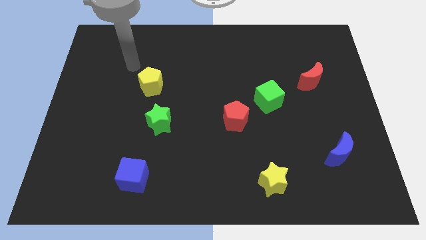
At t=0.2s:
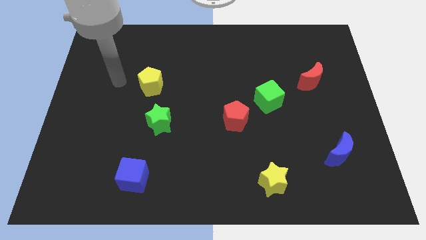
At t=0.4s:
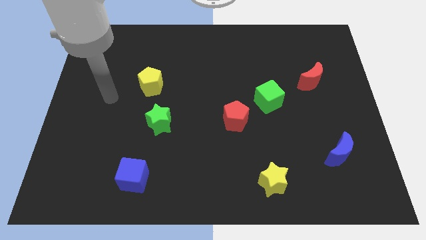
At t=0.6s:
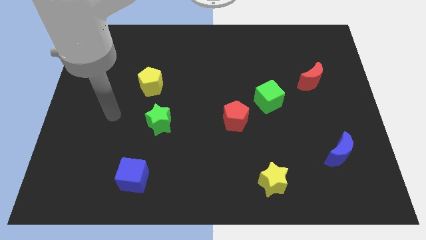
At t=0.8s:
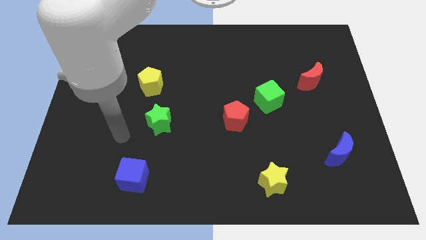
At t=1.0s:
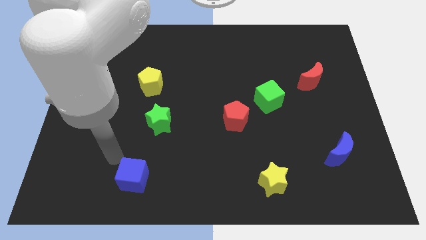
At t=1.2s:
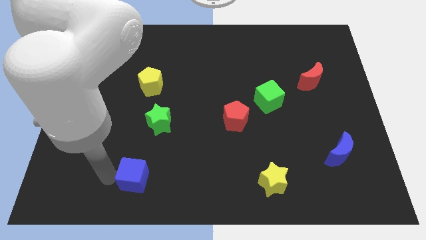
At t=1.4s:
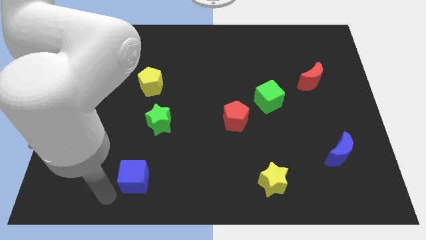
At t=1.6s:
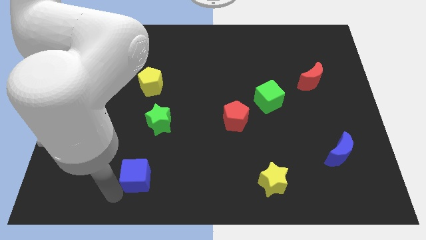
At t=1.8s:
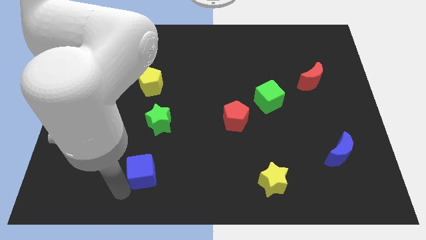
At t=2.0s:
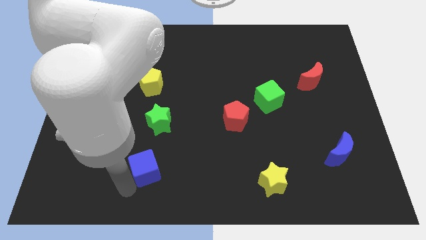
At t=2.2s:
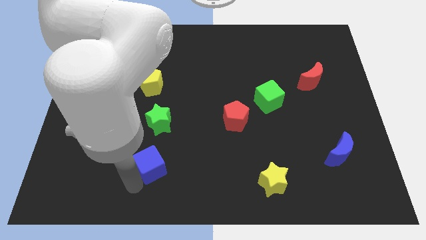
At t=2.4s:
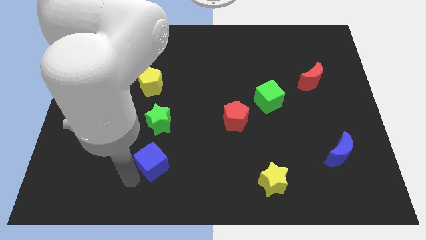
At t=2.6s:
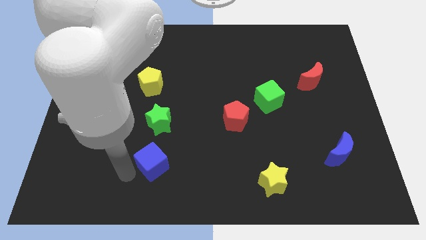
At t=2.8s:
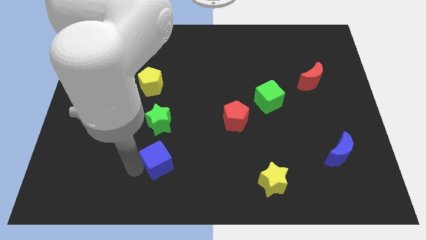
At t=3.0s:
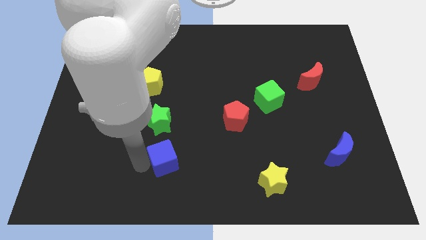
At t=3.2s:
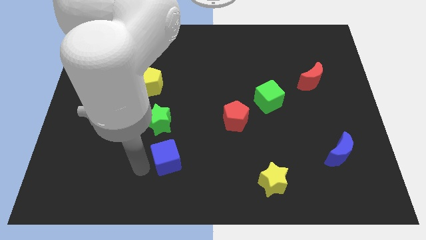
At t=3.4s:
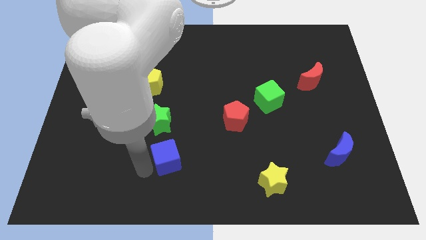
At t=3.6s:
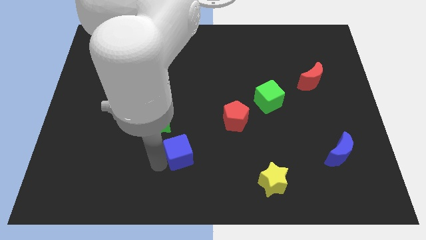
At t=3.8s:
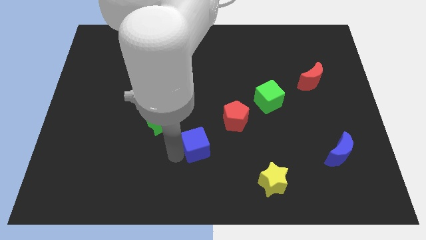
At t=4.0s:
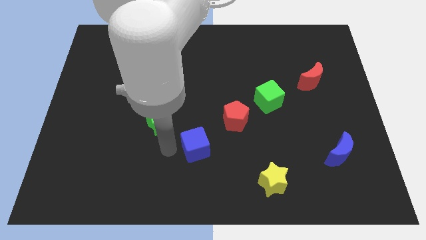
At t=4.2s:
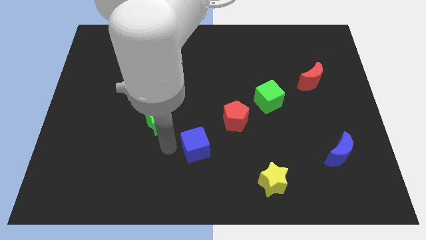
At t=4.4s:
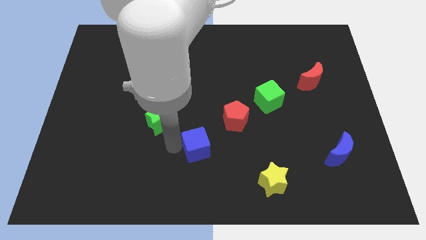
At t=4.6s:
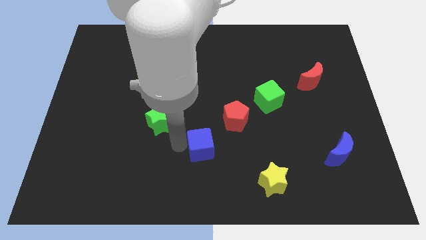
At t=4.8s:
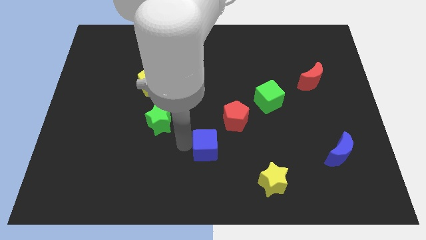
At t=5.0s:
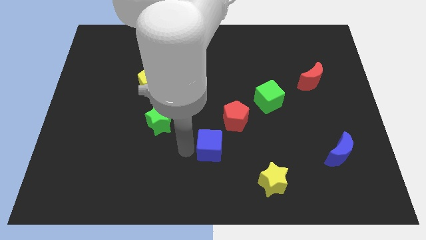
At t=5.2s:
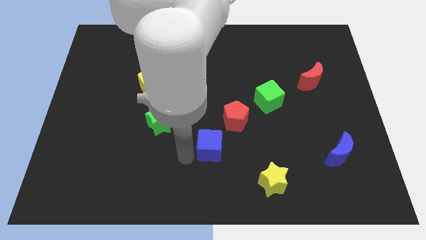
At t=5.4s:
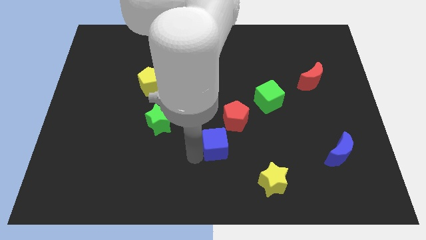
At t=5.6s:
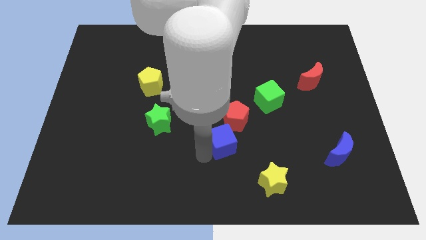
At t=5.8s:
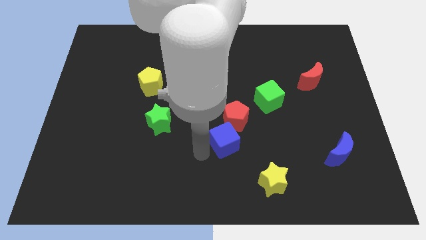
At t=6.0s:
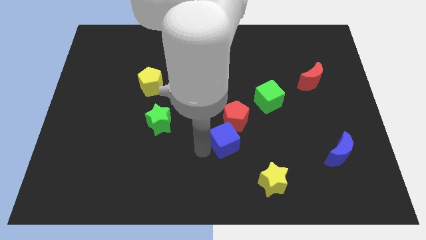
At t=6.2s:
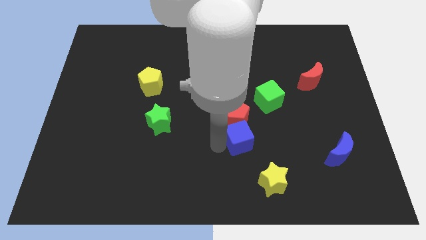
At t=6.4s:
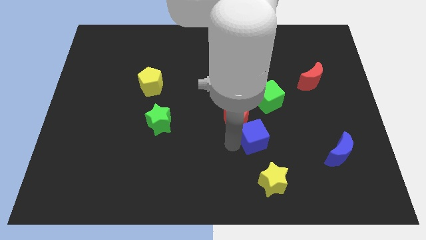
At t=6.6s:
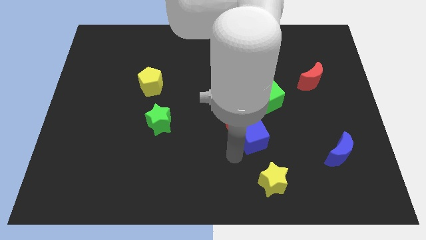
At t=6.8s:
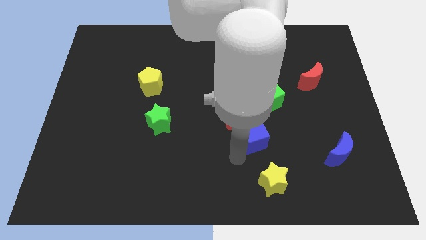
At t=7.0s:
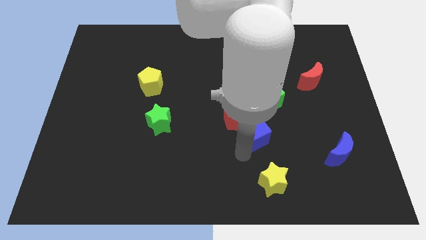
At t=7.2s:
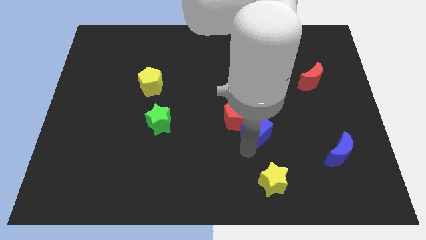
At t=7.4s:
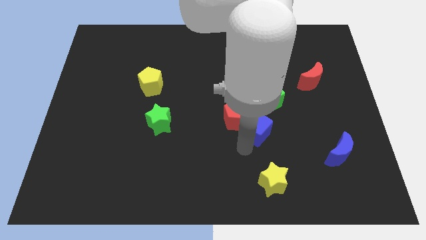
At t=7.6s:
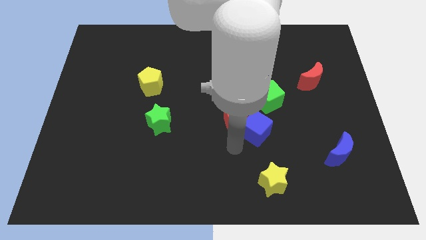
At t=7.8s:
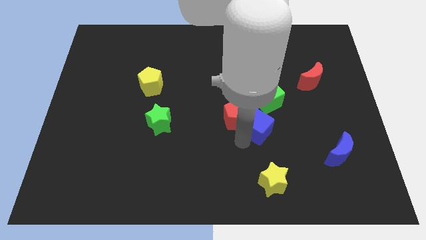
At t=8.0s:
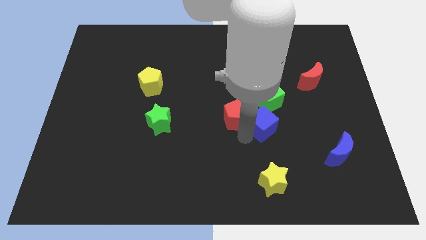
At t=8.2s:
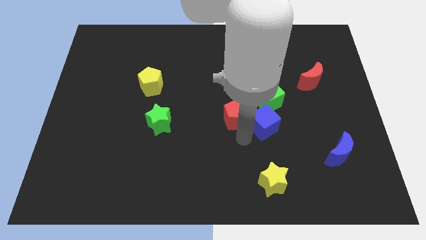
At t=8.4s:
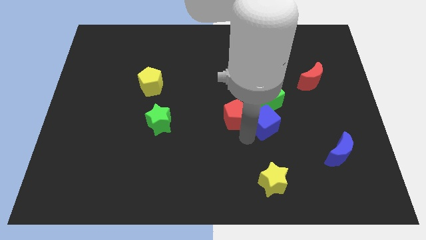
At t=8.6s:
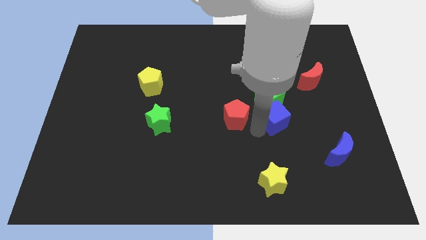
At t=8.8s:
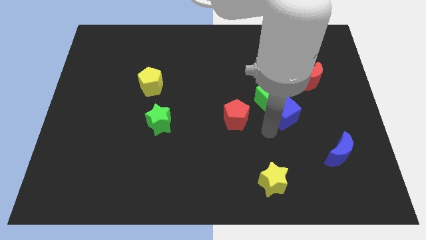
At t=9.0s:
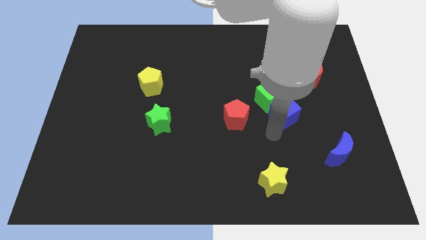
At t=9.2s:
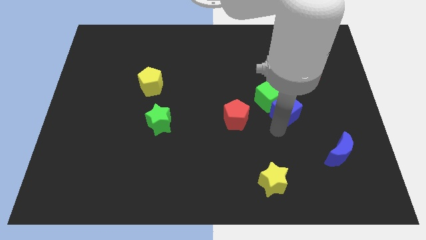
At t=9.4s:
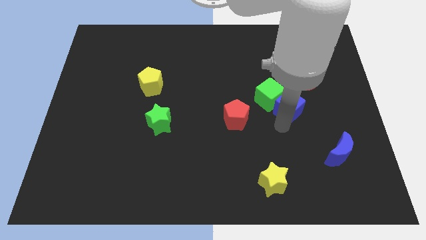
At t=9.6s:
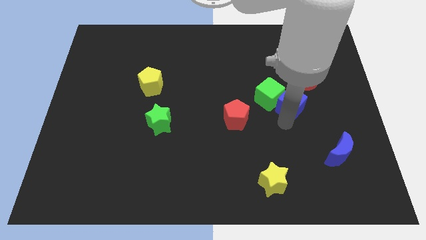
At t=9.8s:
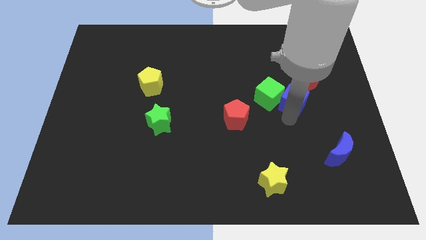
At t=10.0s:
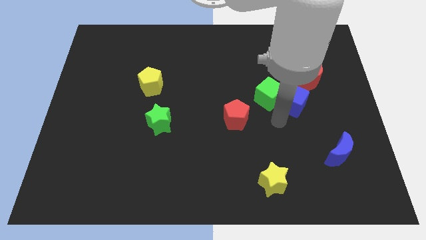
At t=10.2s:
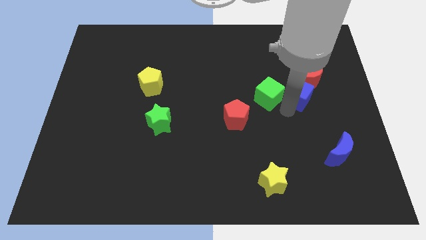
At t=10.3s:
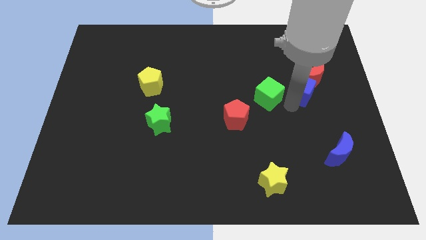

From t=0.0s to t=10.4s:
move the blue cube next to the red moon

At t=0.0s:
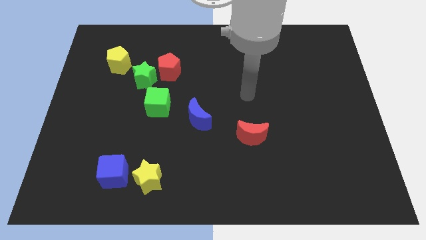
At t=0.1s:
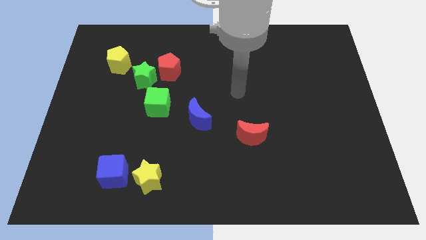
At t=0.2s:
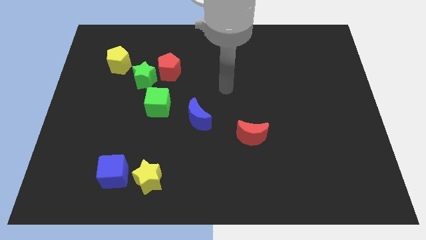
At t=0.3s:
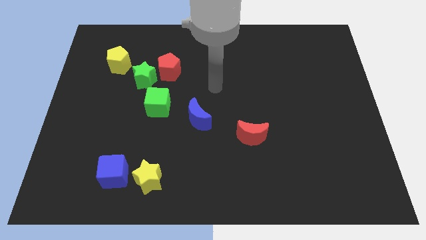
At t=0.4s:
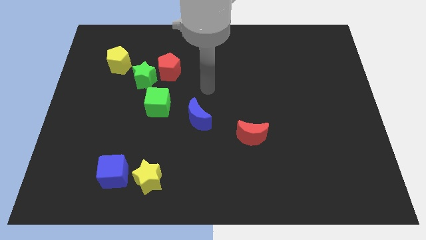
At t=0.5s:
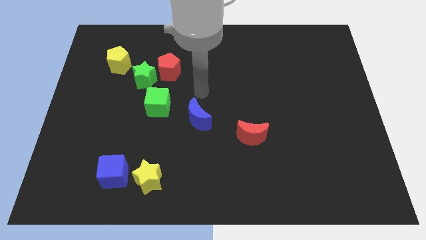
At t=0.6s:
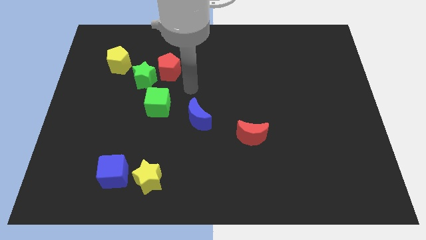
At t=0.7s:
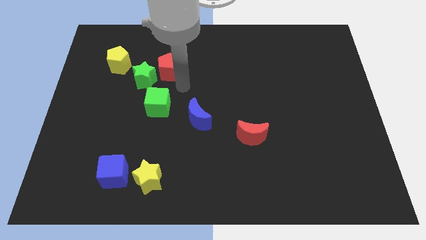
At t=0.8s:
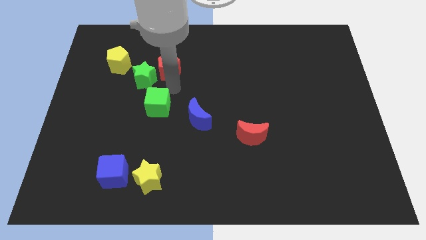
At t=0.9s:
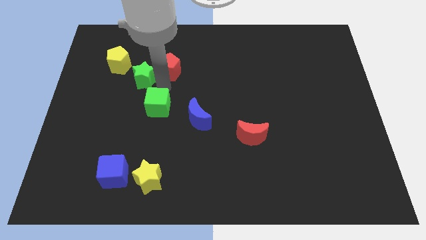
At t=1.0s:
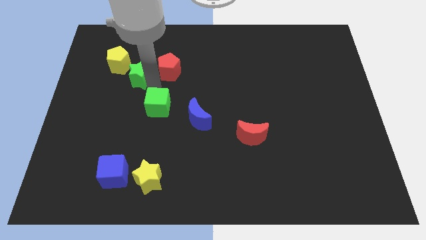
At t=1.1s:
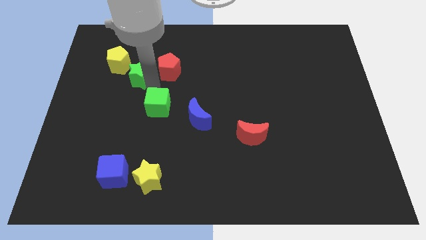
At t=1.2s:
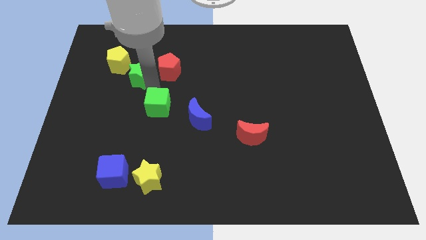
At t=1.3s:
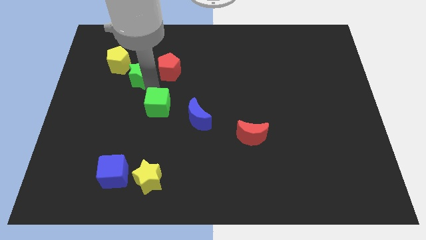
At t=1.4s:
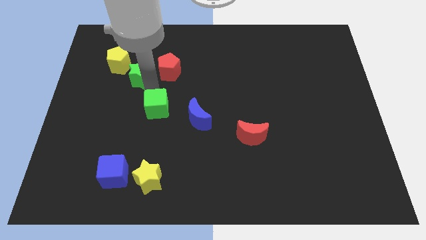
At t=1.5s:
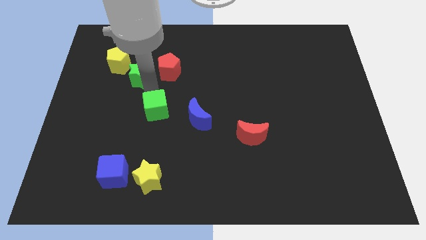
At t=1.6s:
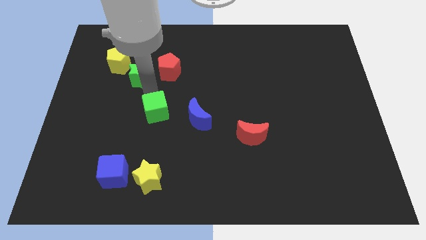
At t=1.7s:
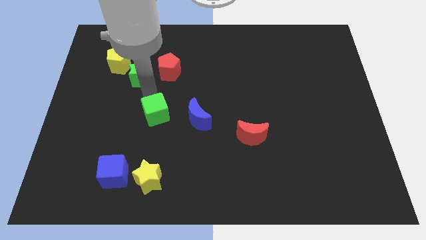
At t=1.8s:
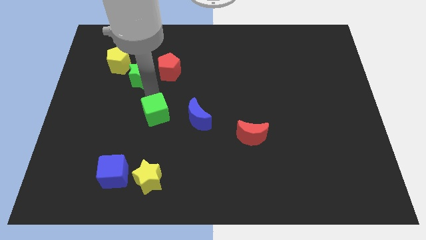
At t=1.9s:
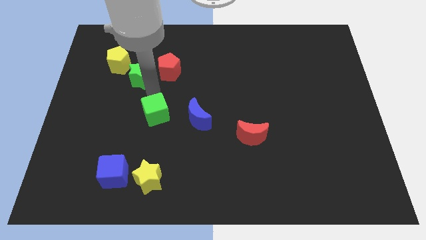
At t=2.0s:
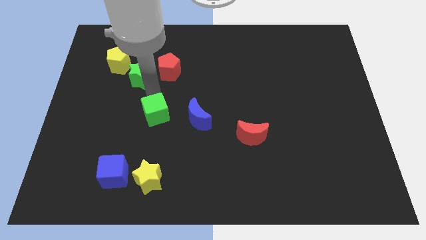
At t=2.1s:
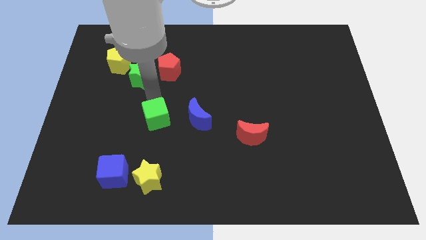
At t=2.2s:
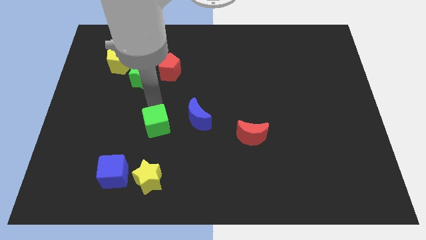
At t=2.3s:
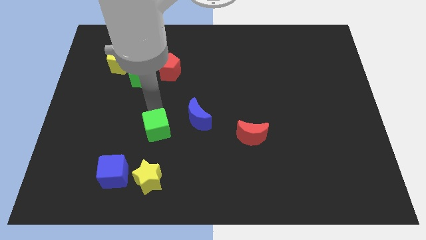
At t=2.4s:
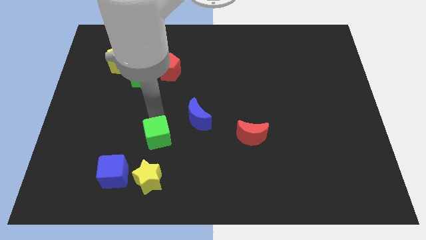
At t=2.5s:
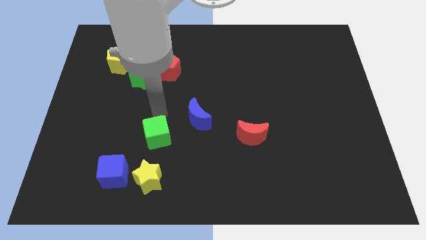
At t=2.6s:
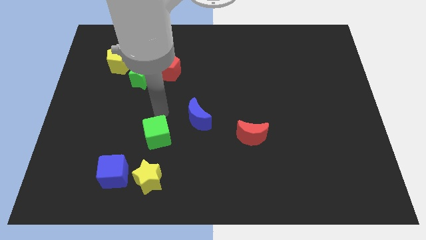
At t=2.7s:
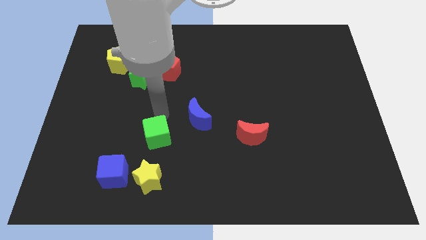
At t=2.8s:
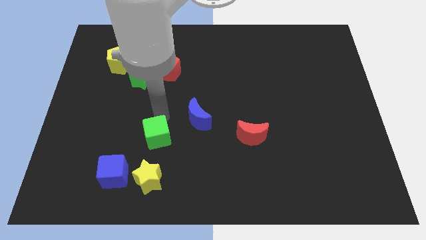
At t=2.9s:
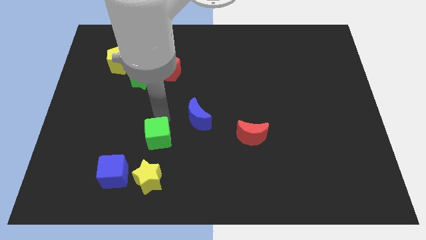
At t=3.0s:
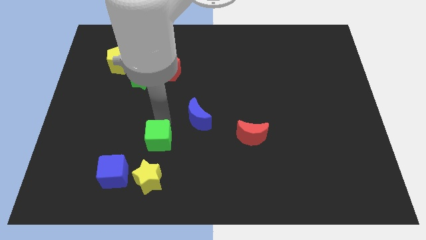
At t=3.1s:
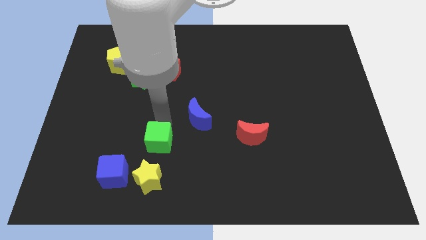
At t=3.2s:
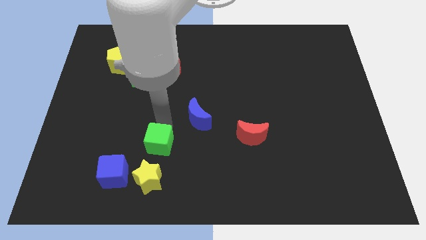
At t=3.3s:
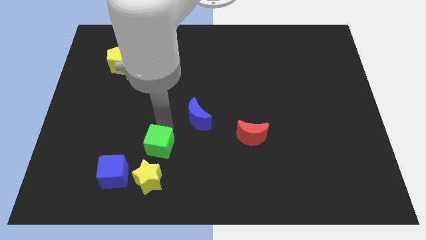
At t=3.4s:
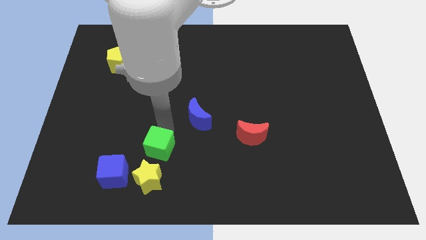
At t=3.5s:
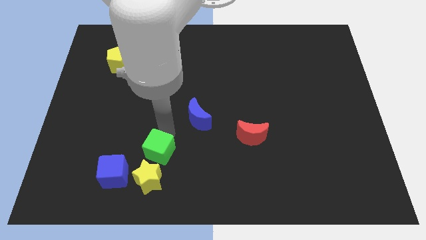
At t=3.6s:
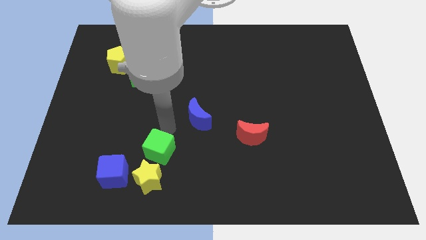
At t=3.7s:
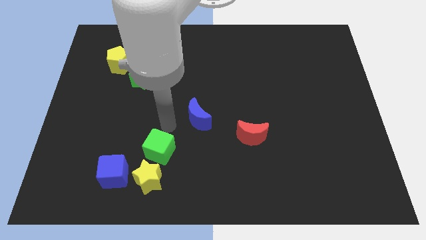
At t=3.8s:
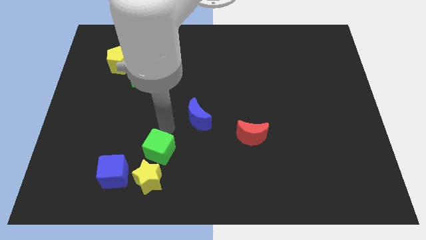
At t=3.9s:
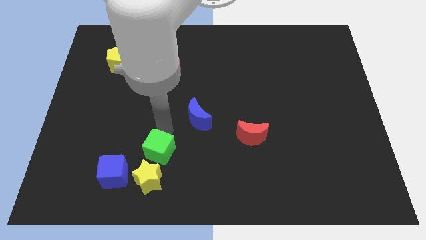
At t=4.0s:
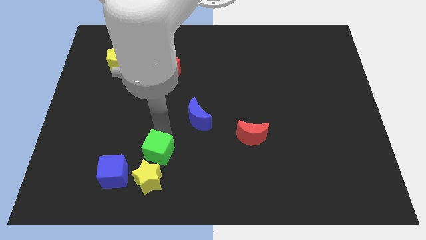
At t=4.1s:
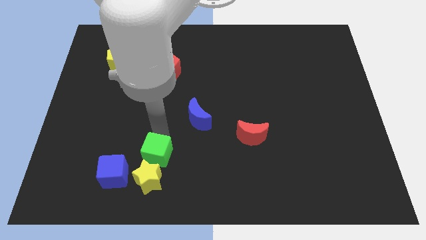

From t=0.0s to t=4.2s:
push the green cube towards the yellow star
